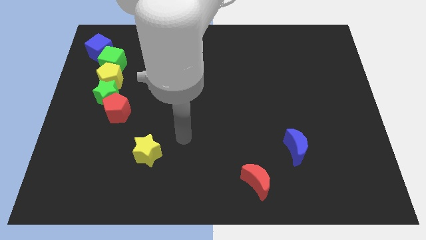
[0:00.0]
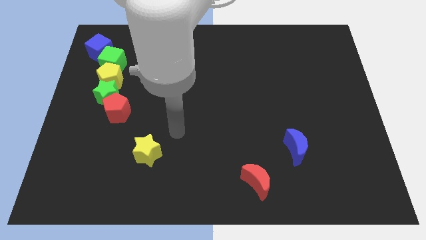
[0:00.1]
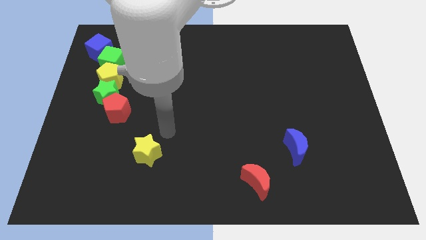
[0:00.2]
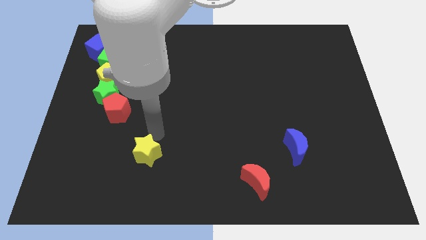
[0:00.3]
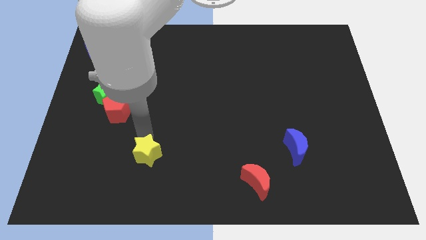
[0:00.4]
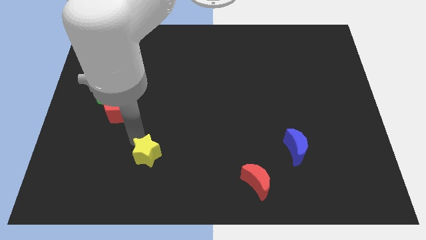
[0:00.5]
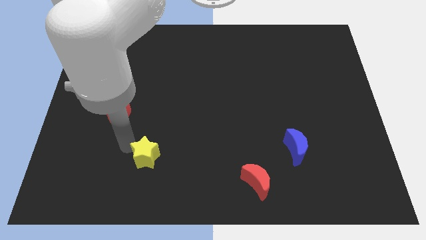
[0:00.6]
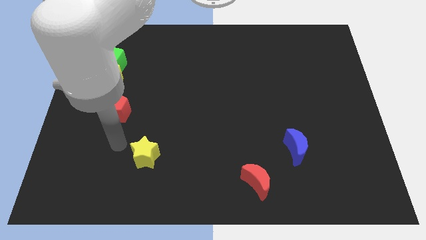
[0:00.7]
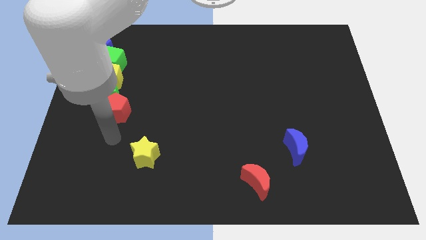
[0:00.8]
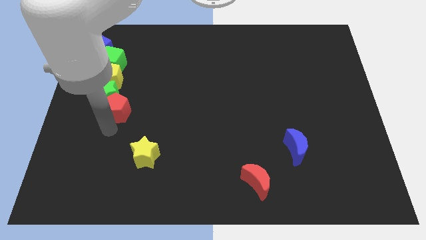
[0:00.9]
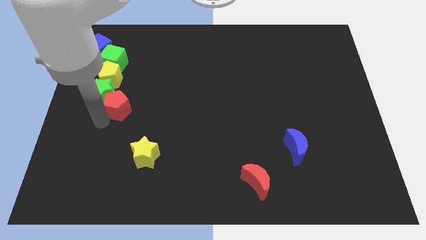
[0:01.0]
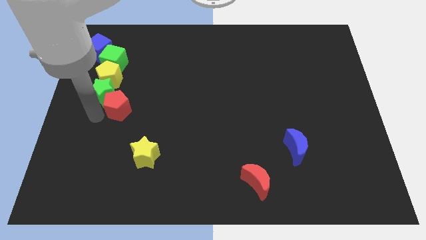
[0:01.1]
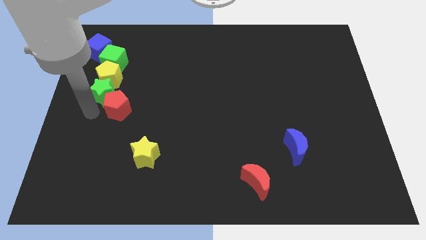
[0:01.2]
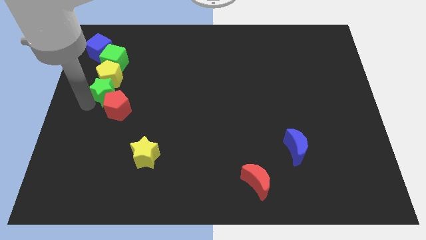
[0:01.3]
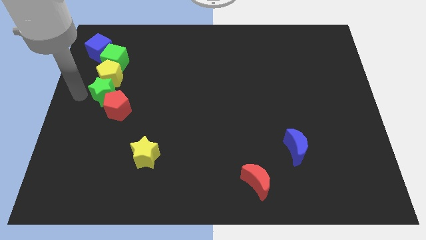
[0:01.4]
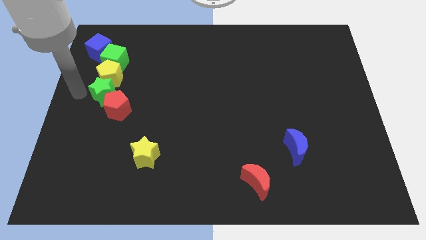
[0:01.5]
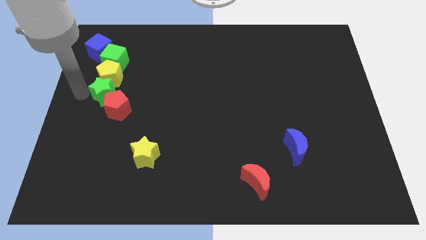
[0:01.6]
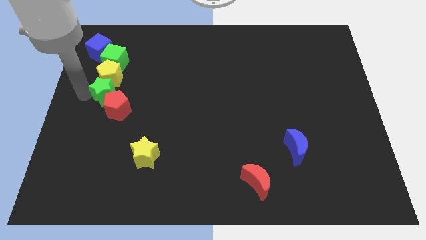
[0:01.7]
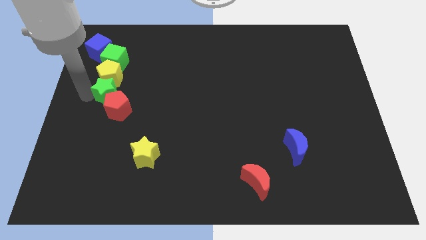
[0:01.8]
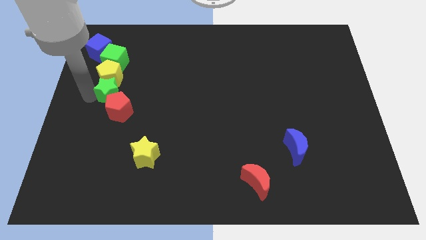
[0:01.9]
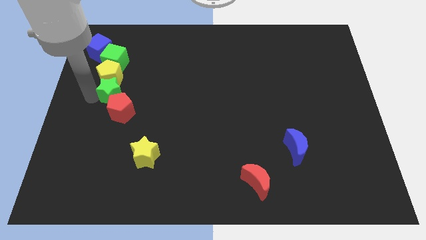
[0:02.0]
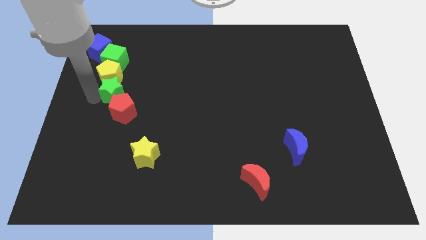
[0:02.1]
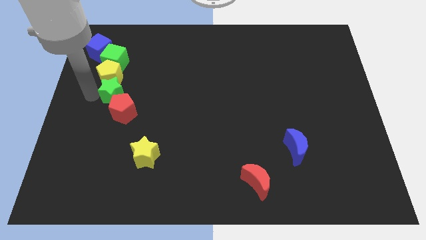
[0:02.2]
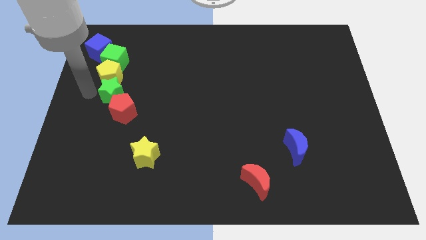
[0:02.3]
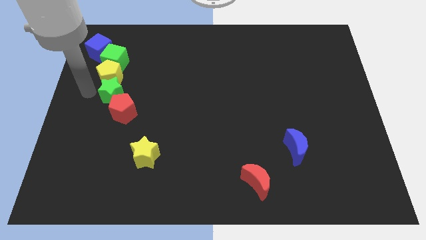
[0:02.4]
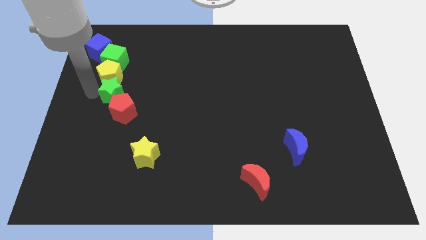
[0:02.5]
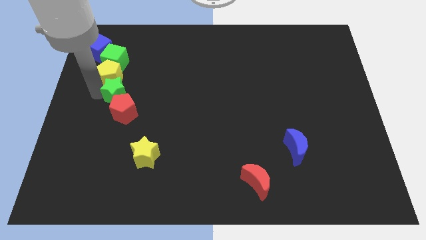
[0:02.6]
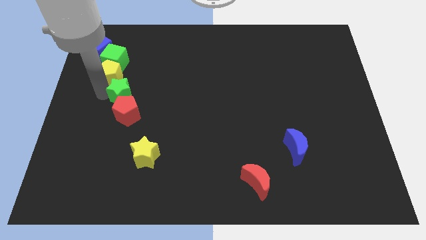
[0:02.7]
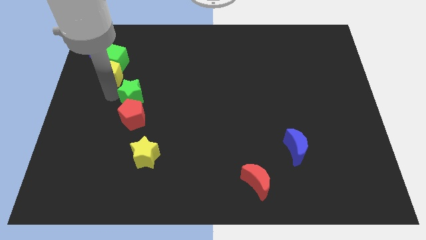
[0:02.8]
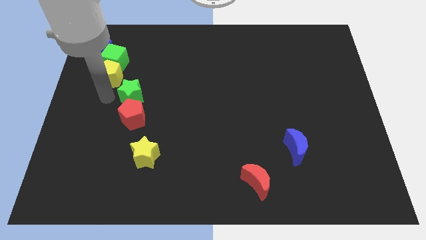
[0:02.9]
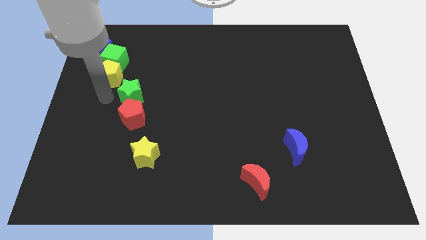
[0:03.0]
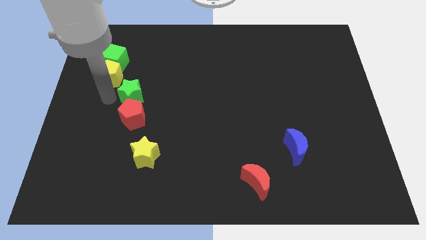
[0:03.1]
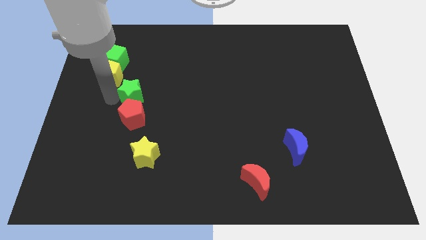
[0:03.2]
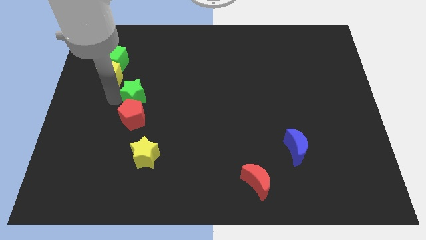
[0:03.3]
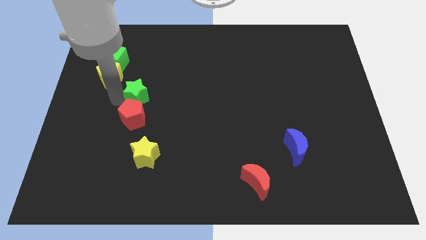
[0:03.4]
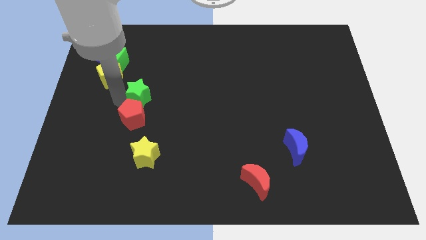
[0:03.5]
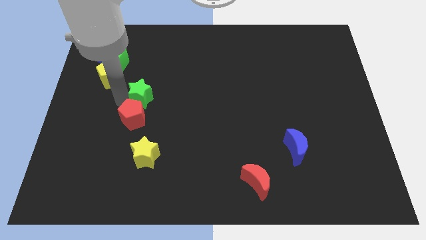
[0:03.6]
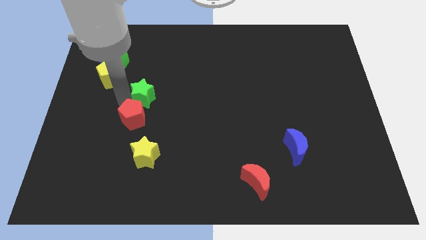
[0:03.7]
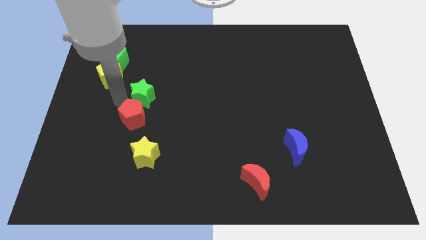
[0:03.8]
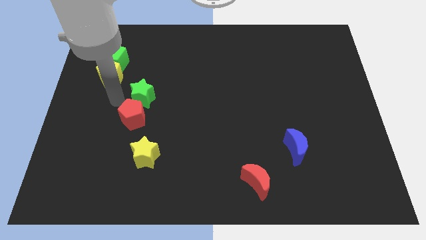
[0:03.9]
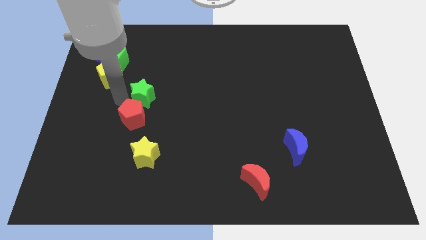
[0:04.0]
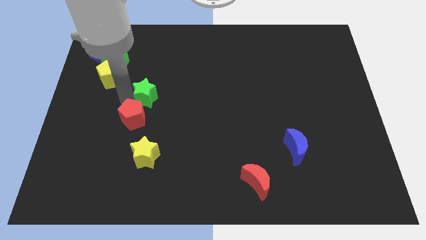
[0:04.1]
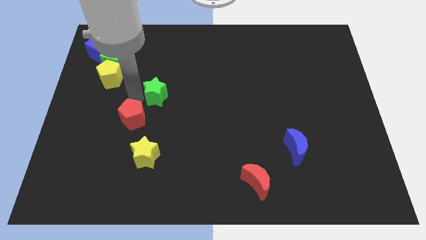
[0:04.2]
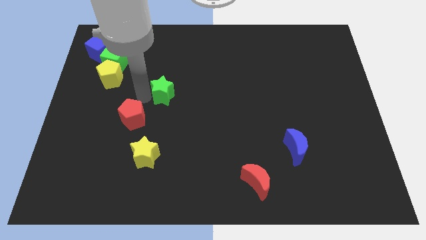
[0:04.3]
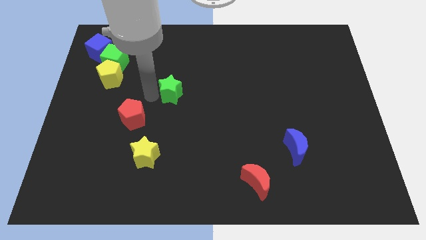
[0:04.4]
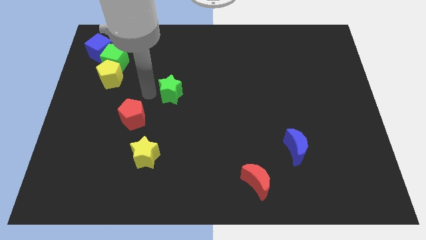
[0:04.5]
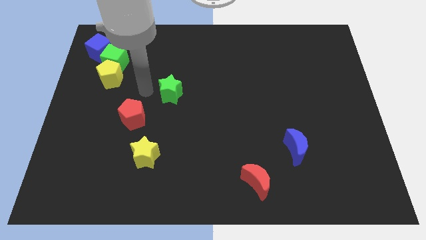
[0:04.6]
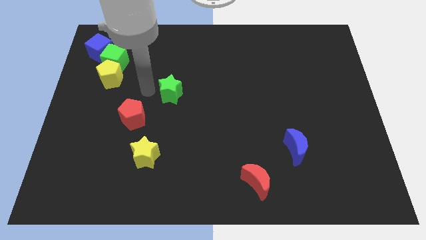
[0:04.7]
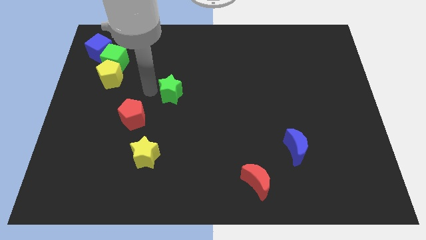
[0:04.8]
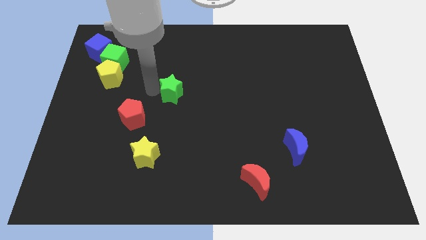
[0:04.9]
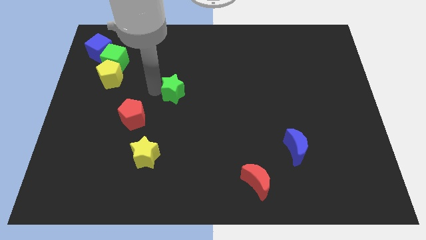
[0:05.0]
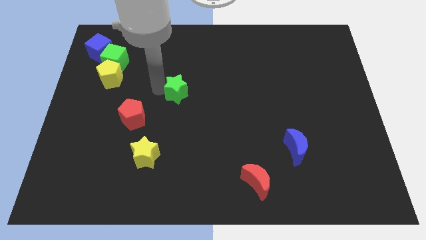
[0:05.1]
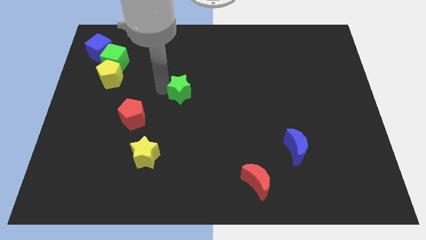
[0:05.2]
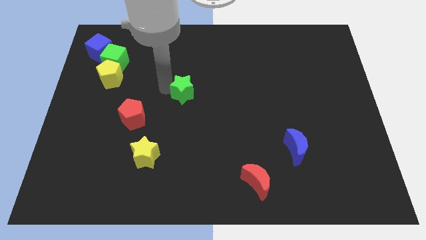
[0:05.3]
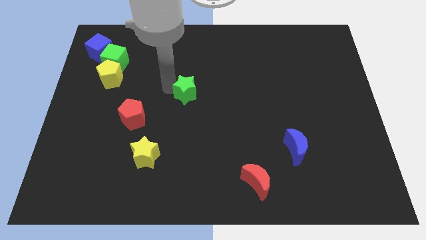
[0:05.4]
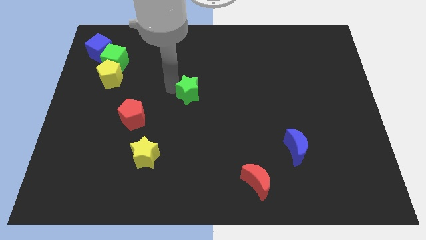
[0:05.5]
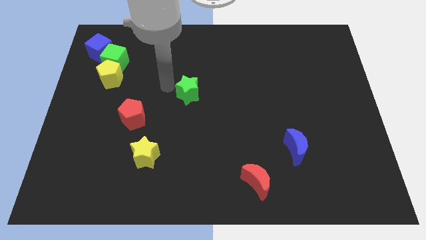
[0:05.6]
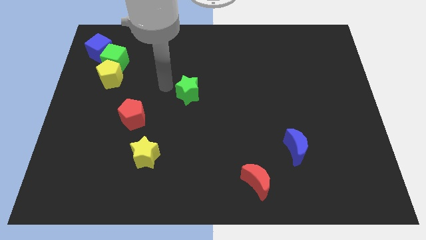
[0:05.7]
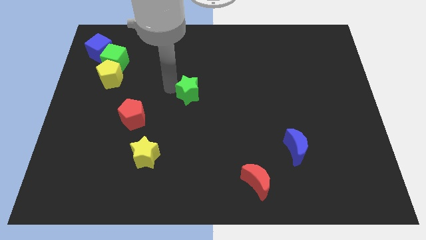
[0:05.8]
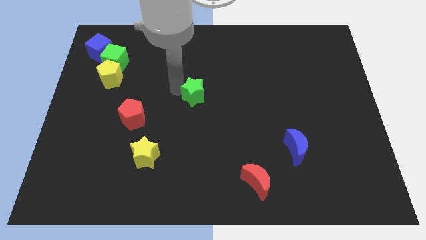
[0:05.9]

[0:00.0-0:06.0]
move the green star right

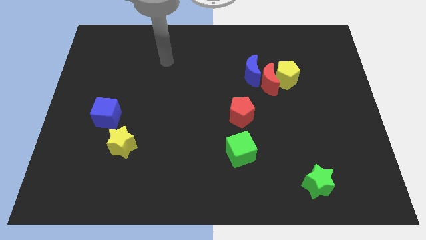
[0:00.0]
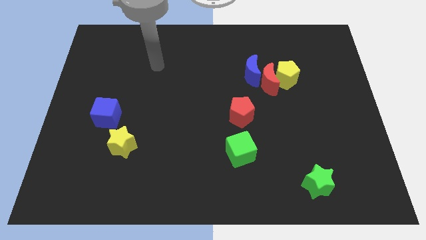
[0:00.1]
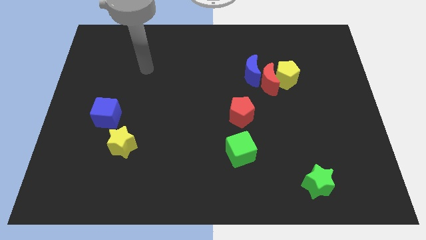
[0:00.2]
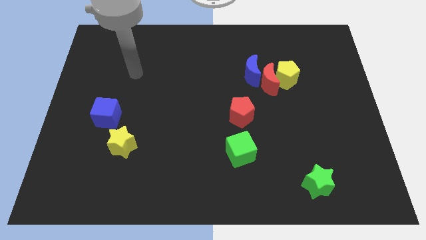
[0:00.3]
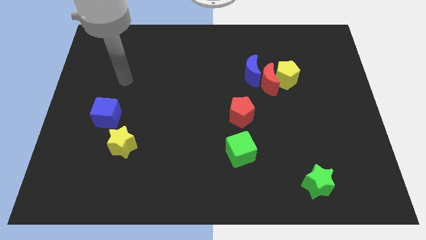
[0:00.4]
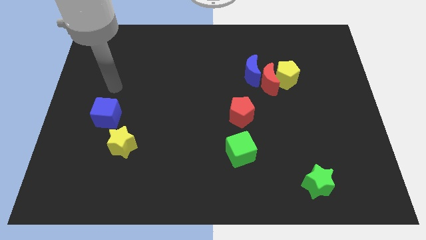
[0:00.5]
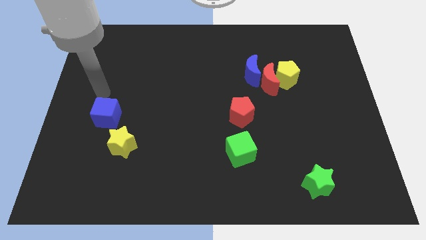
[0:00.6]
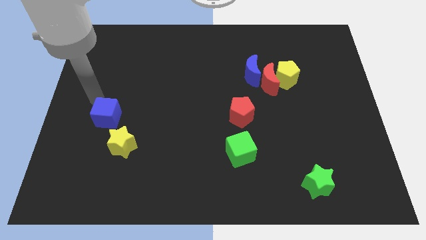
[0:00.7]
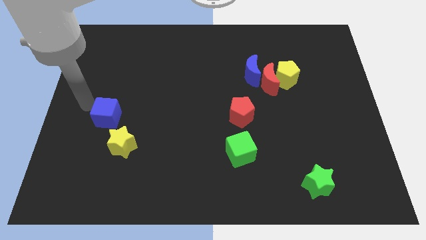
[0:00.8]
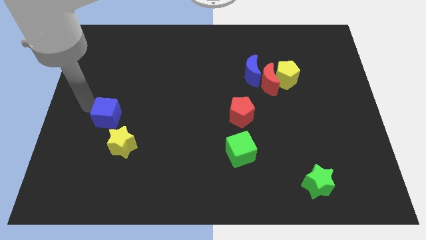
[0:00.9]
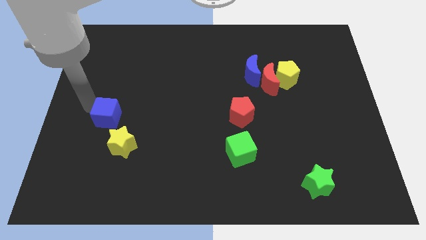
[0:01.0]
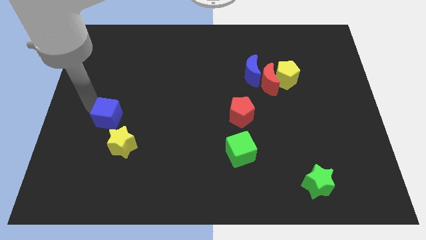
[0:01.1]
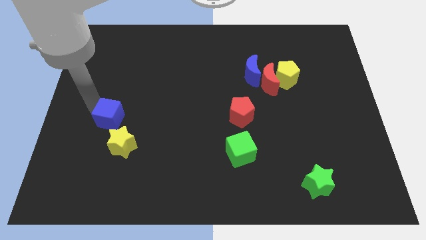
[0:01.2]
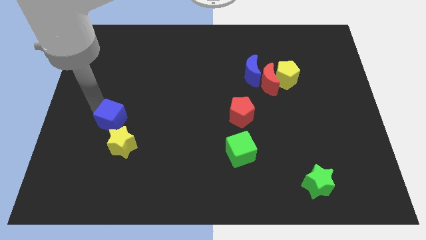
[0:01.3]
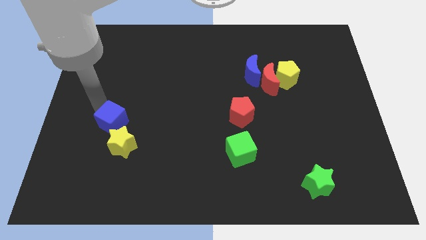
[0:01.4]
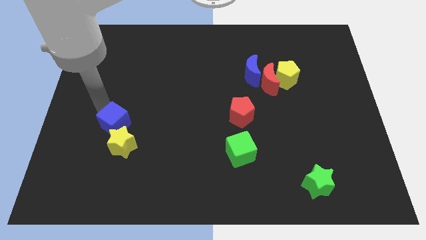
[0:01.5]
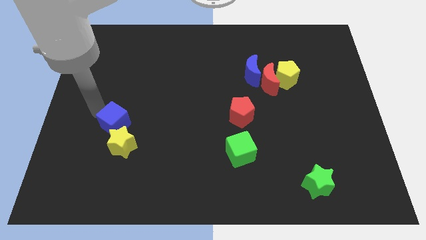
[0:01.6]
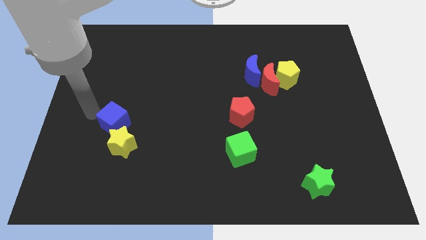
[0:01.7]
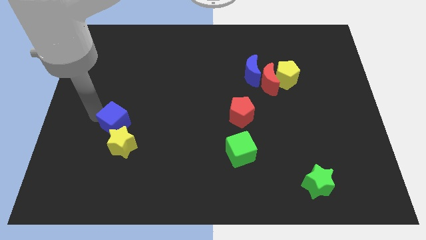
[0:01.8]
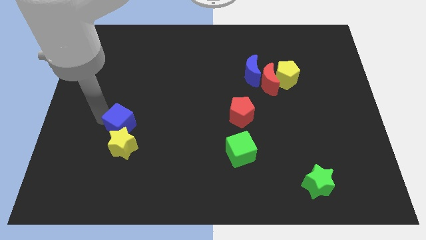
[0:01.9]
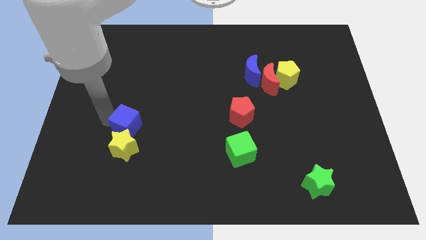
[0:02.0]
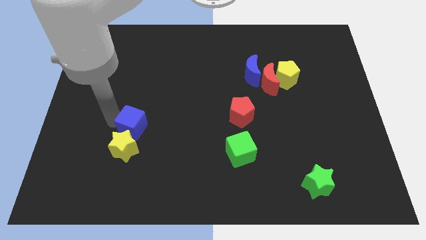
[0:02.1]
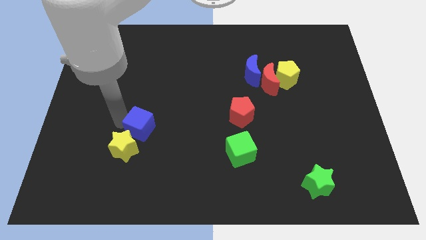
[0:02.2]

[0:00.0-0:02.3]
move the blue cube slightly down and to the right diagonally
